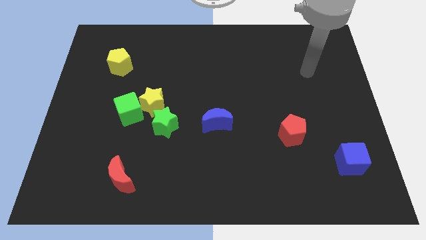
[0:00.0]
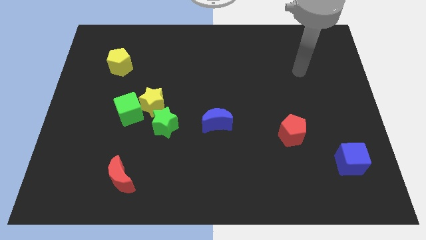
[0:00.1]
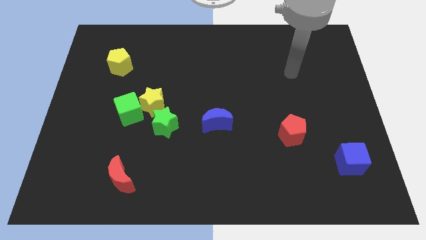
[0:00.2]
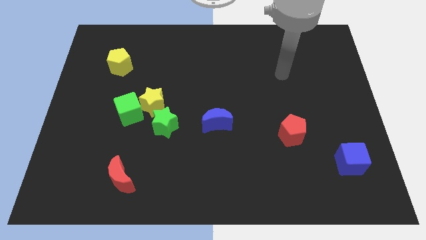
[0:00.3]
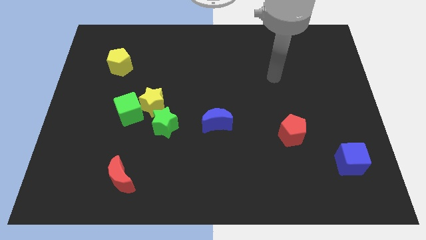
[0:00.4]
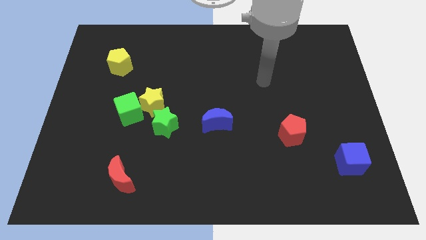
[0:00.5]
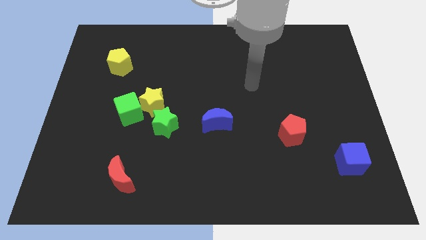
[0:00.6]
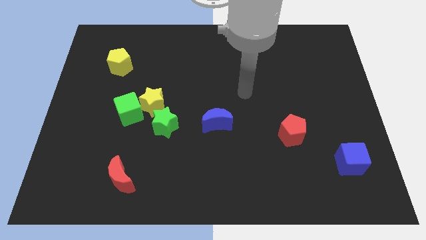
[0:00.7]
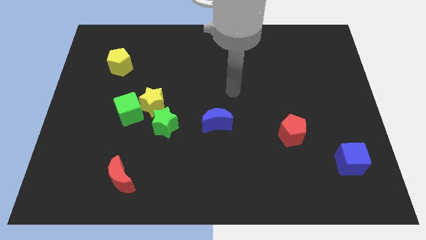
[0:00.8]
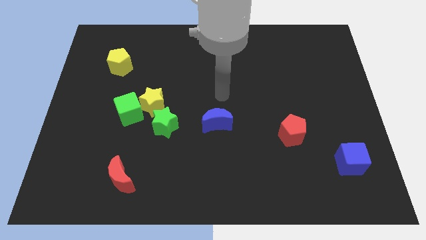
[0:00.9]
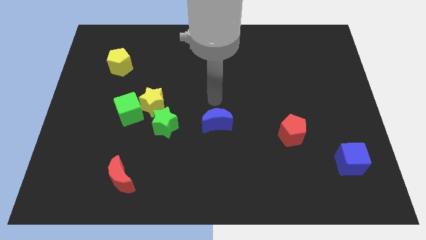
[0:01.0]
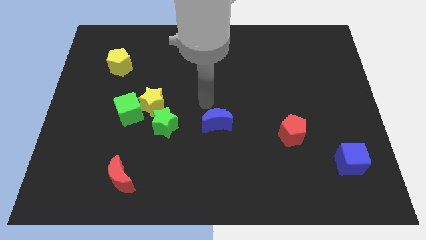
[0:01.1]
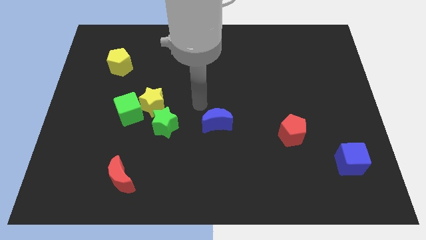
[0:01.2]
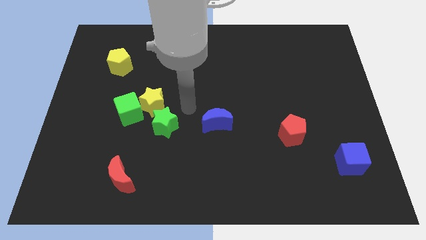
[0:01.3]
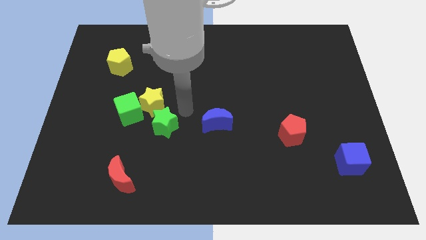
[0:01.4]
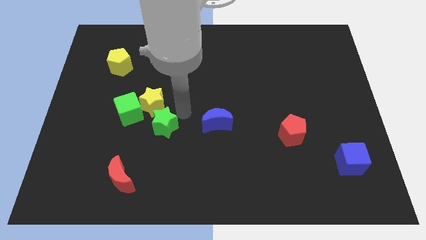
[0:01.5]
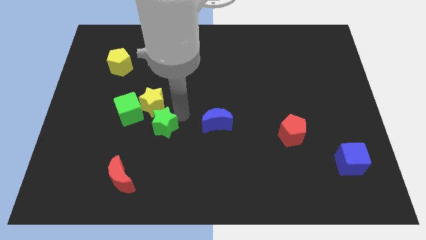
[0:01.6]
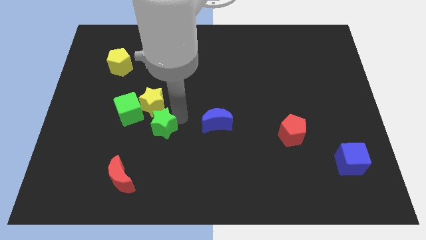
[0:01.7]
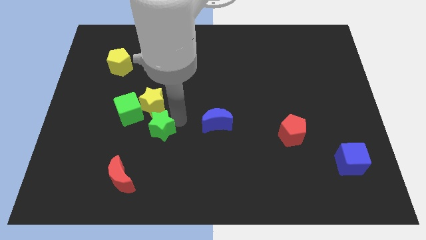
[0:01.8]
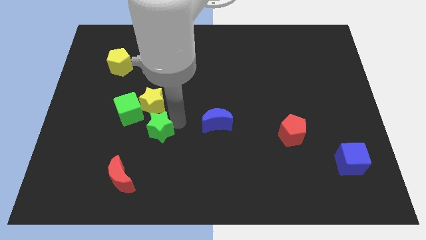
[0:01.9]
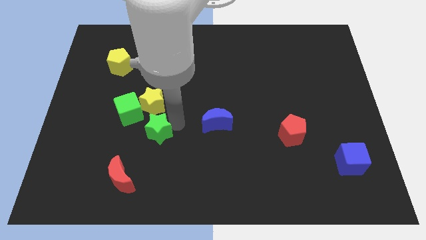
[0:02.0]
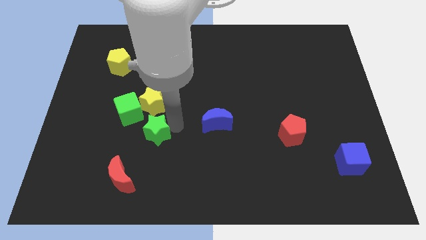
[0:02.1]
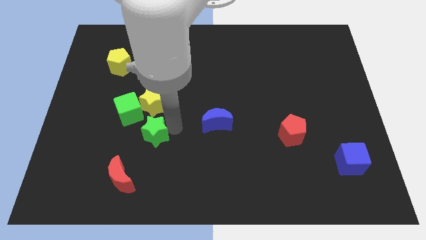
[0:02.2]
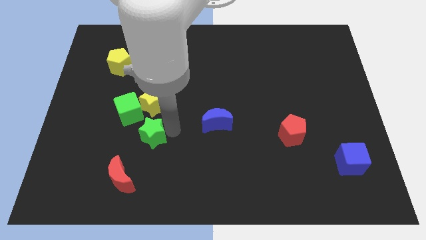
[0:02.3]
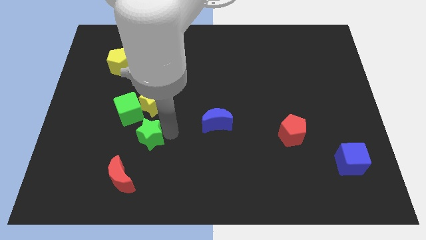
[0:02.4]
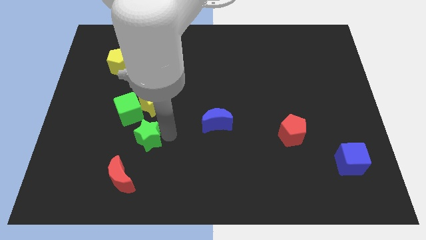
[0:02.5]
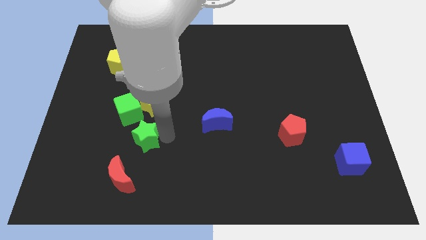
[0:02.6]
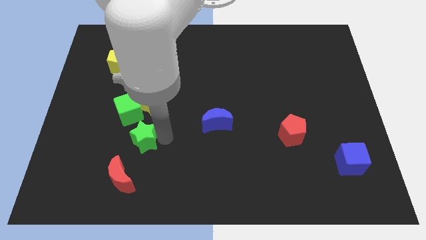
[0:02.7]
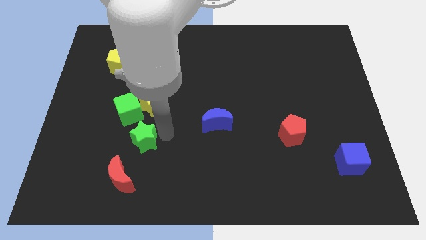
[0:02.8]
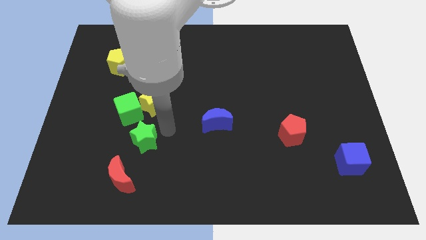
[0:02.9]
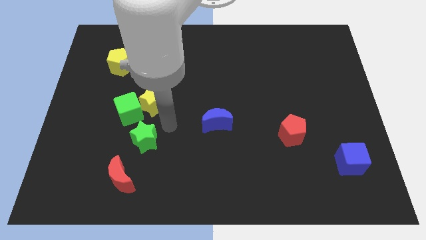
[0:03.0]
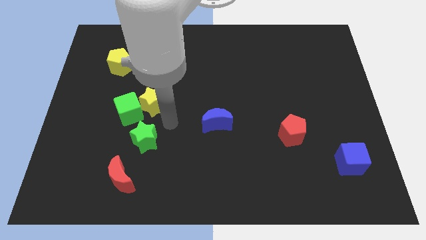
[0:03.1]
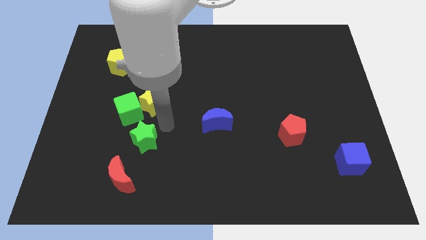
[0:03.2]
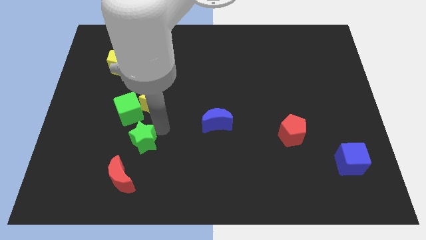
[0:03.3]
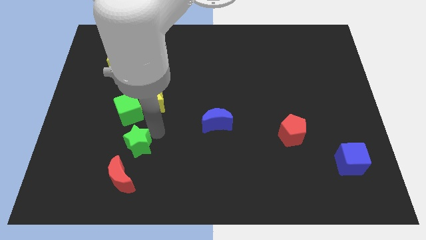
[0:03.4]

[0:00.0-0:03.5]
slightly slide the green star downwards and then left

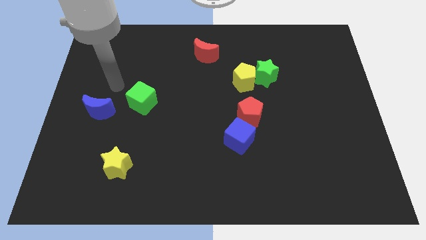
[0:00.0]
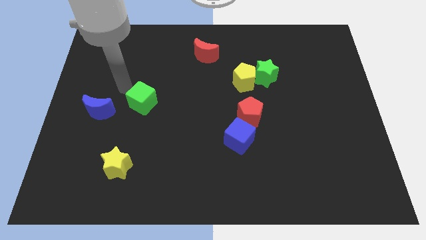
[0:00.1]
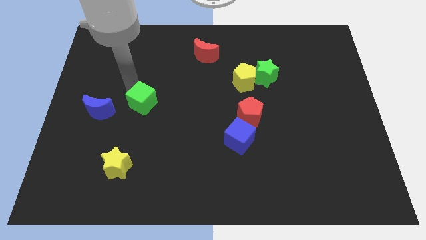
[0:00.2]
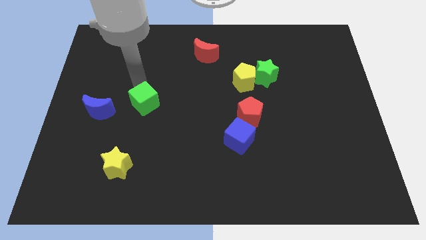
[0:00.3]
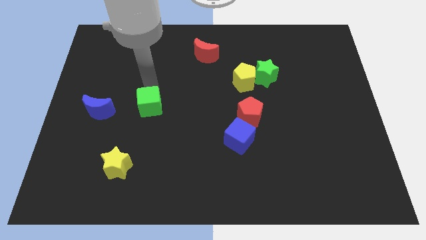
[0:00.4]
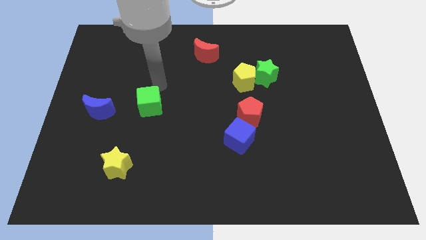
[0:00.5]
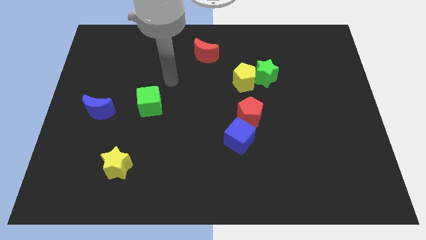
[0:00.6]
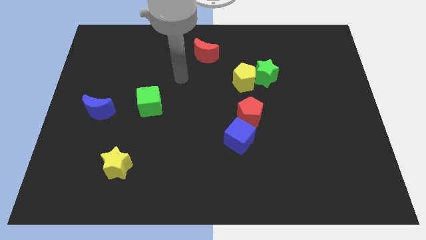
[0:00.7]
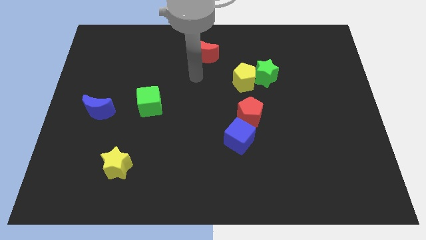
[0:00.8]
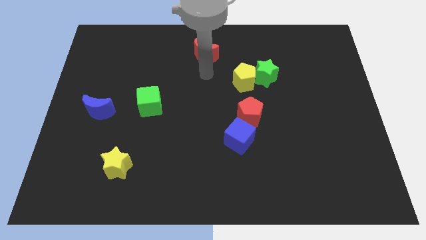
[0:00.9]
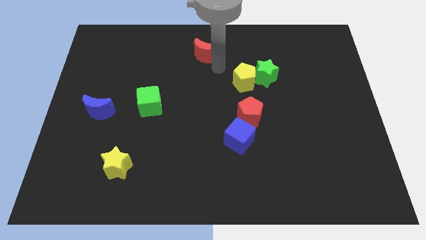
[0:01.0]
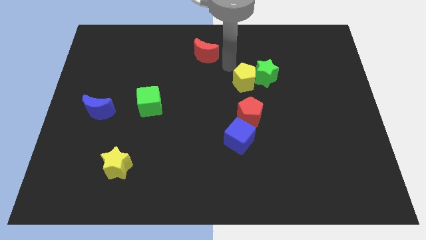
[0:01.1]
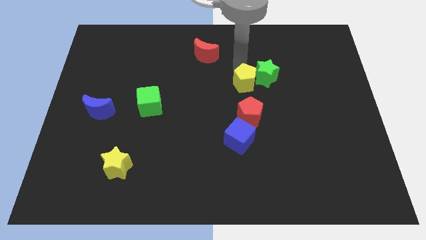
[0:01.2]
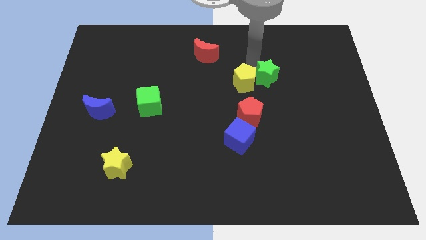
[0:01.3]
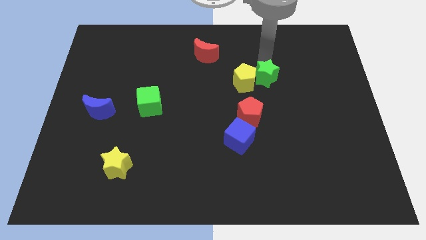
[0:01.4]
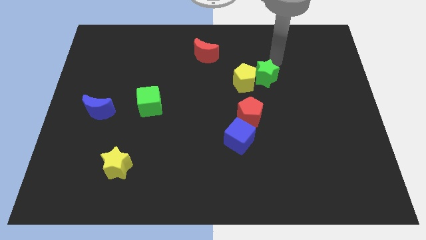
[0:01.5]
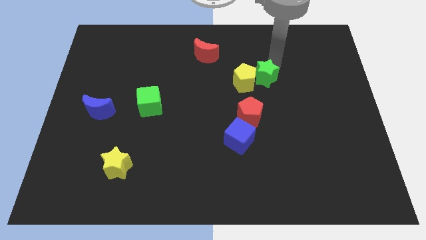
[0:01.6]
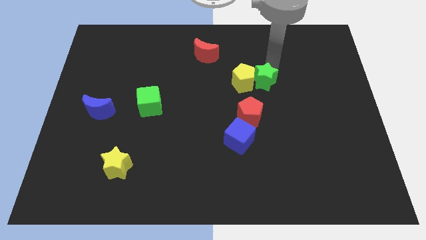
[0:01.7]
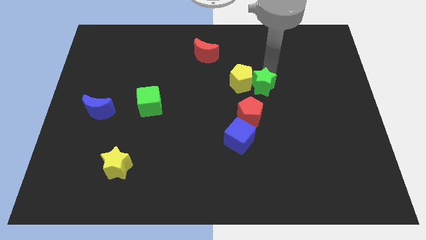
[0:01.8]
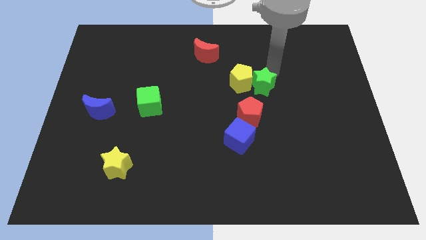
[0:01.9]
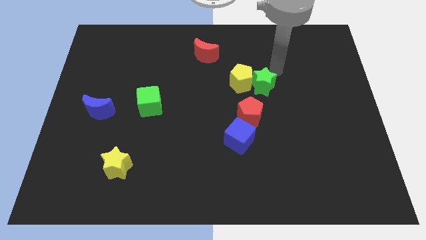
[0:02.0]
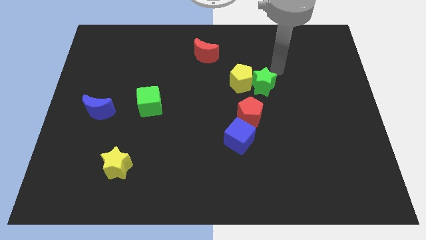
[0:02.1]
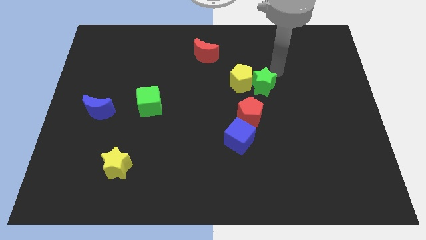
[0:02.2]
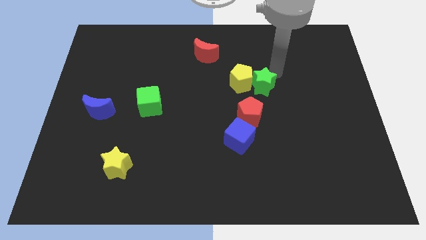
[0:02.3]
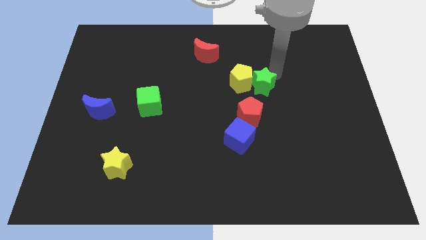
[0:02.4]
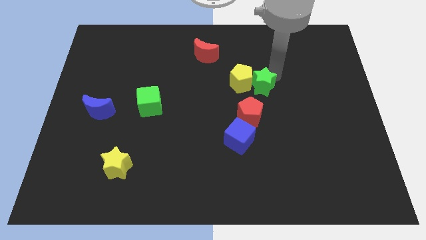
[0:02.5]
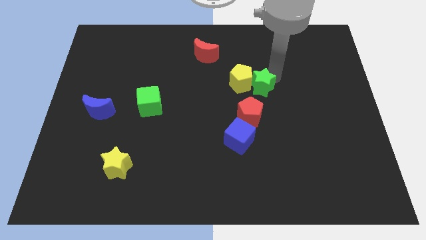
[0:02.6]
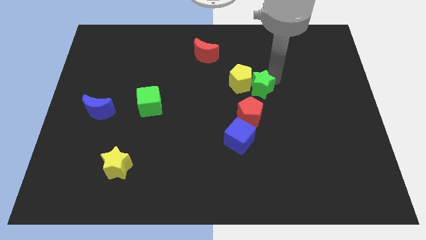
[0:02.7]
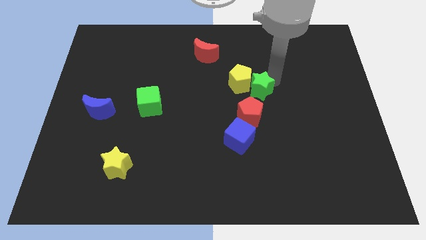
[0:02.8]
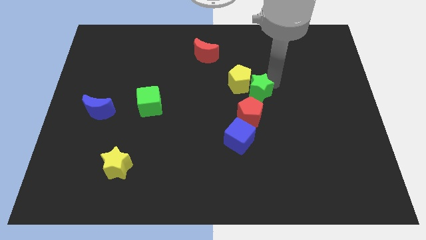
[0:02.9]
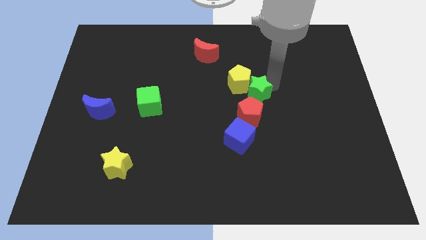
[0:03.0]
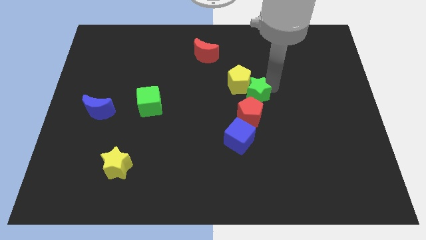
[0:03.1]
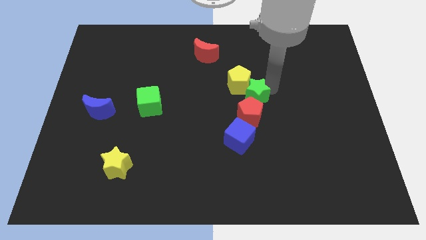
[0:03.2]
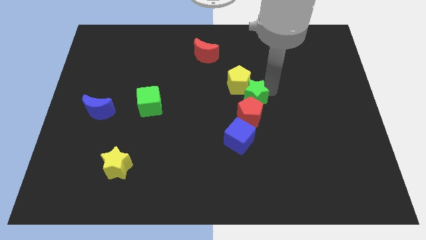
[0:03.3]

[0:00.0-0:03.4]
slightly move the green star downwards and then to the left

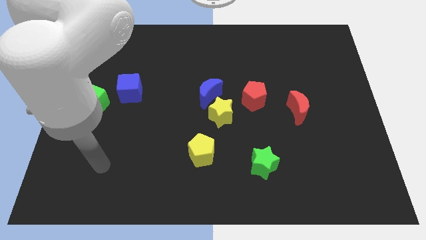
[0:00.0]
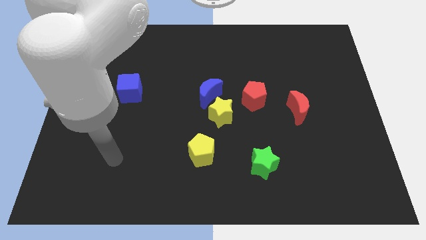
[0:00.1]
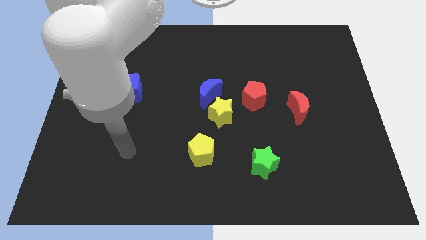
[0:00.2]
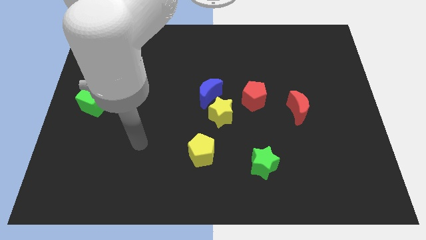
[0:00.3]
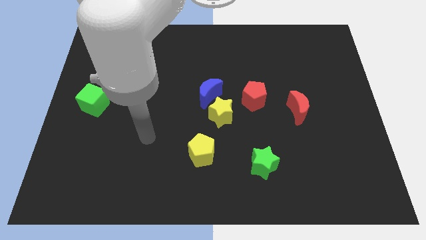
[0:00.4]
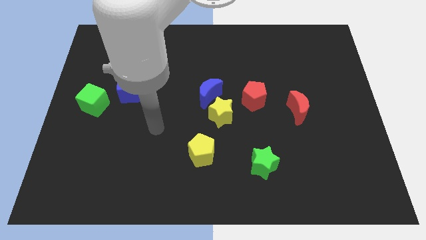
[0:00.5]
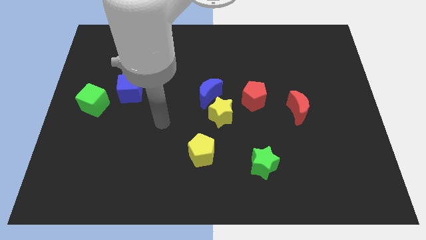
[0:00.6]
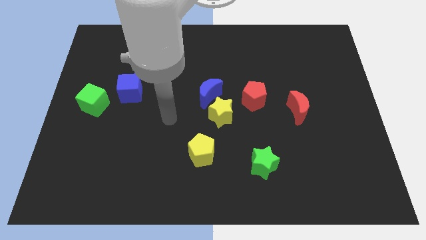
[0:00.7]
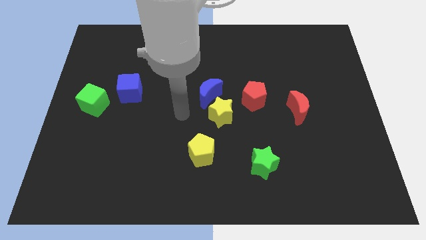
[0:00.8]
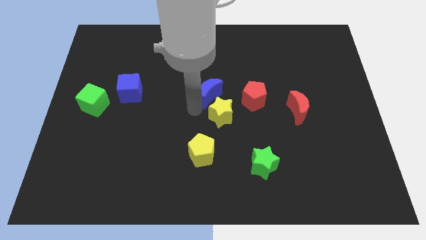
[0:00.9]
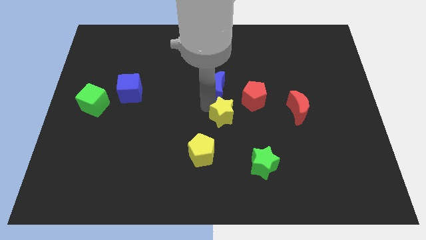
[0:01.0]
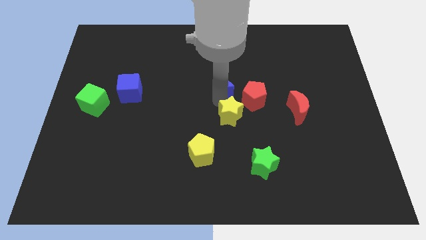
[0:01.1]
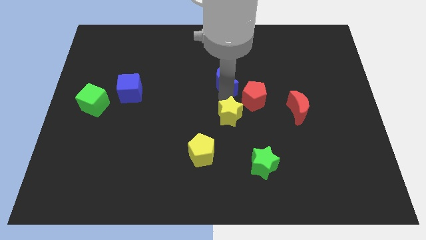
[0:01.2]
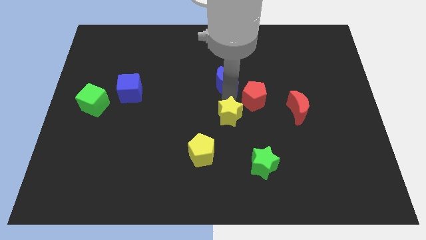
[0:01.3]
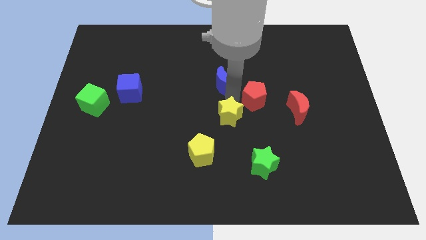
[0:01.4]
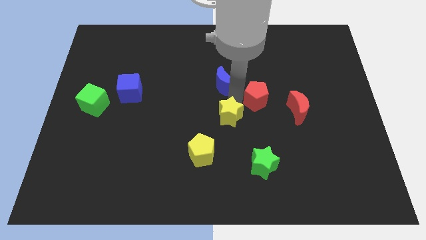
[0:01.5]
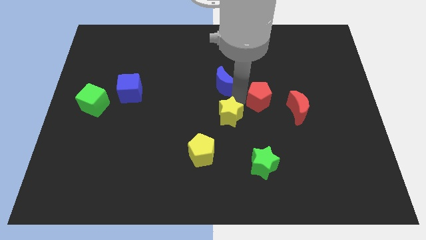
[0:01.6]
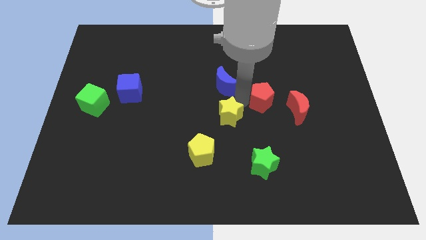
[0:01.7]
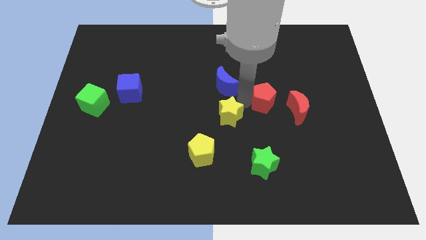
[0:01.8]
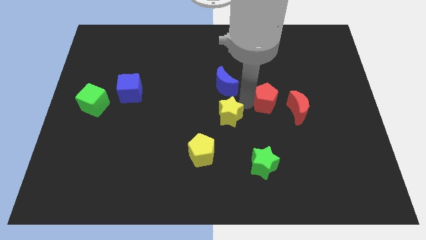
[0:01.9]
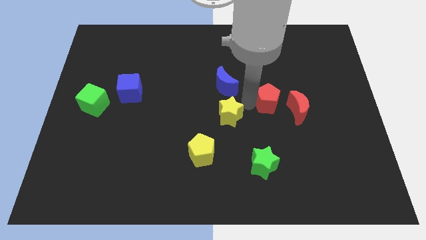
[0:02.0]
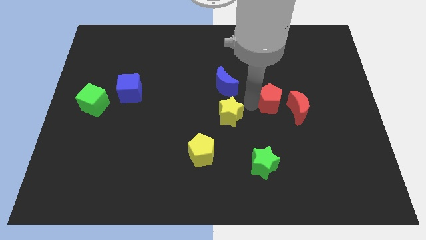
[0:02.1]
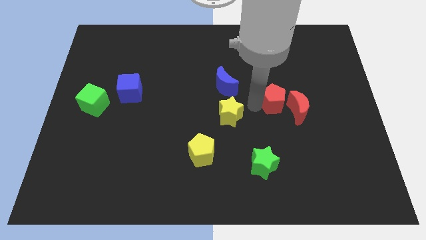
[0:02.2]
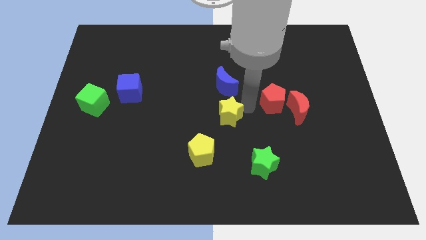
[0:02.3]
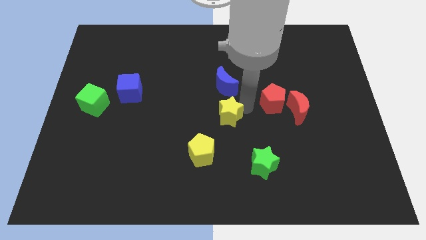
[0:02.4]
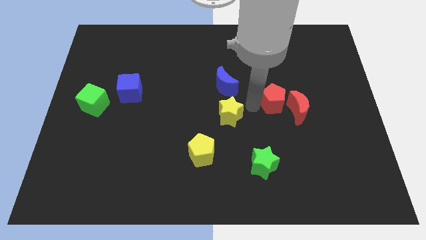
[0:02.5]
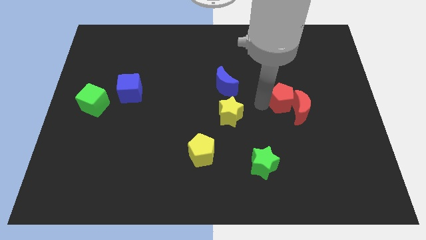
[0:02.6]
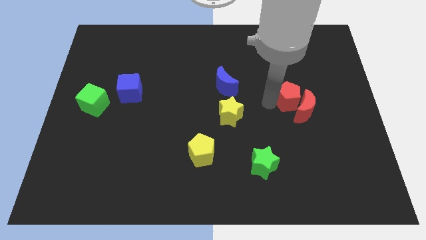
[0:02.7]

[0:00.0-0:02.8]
move the red pentagon right slightly
